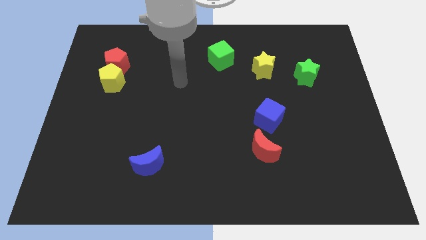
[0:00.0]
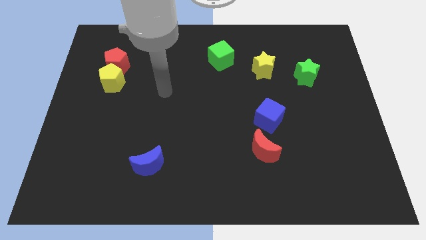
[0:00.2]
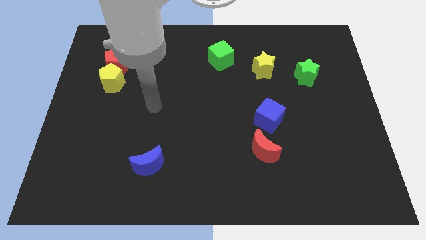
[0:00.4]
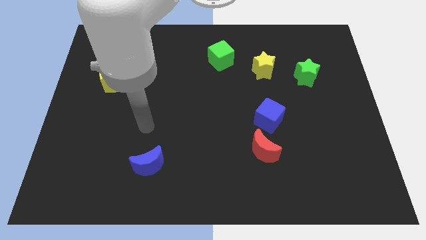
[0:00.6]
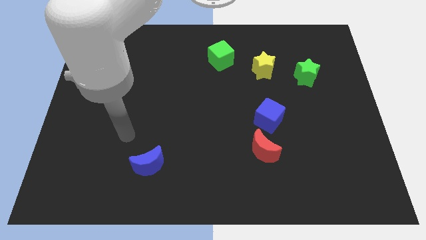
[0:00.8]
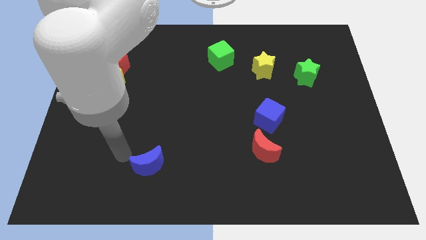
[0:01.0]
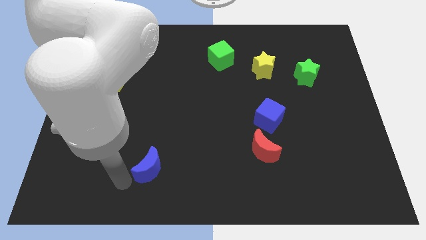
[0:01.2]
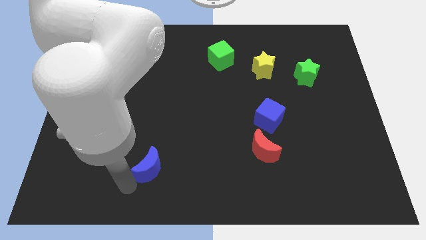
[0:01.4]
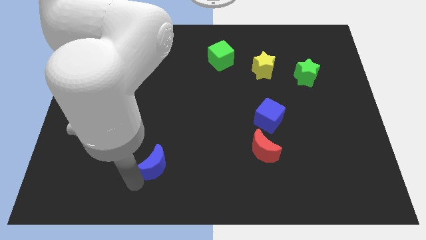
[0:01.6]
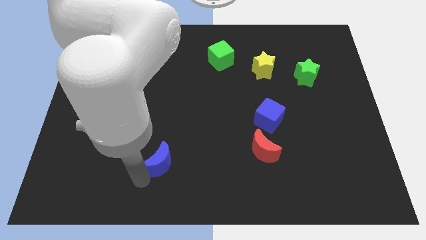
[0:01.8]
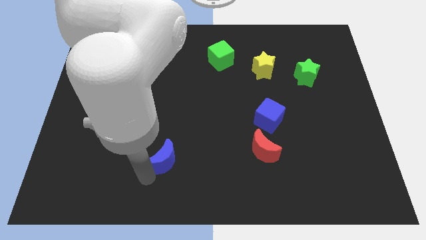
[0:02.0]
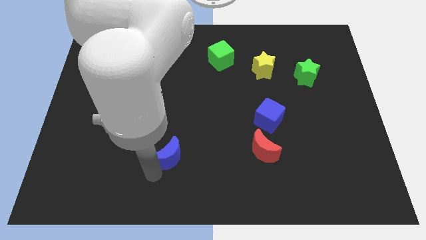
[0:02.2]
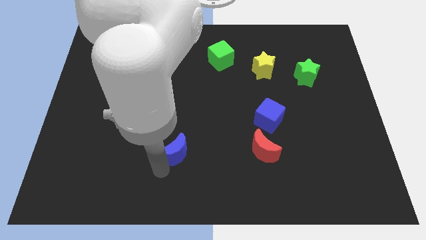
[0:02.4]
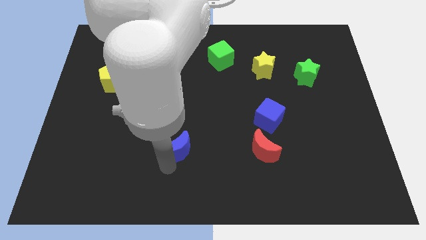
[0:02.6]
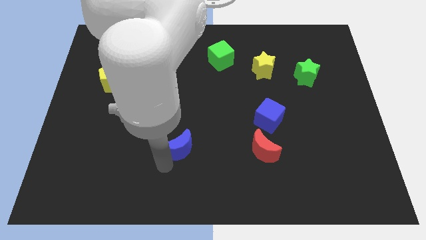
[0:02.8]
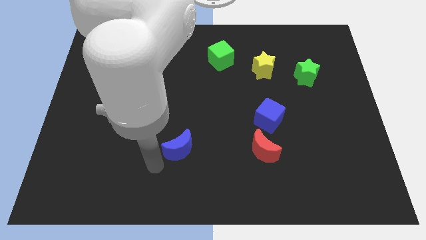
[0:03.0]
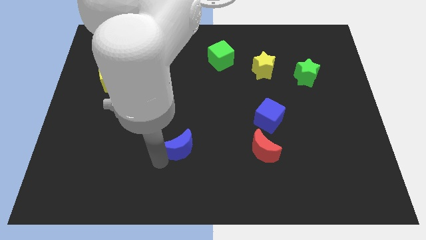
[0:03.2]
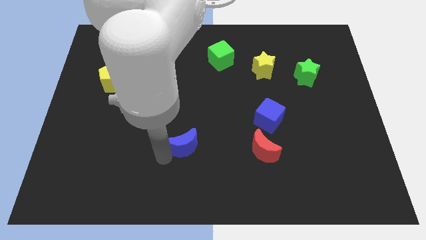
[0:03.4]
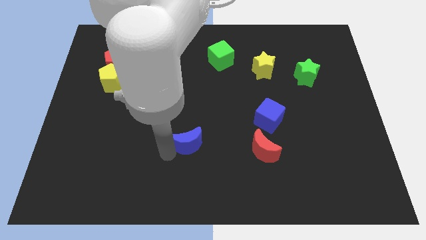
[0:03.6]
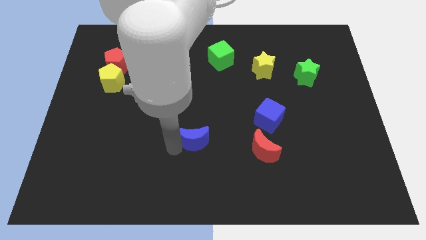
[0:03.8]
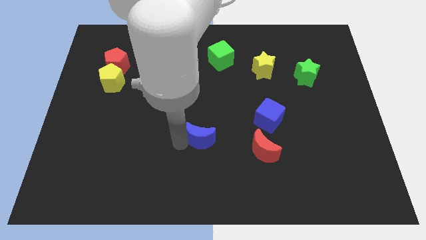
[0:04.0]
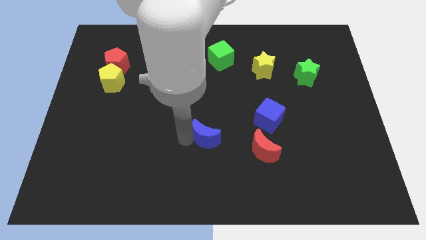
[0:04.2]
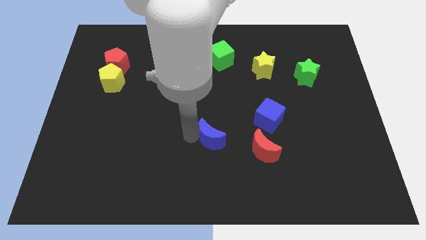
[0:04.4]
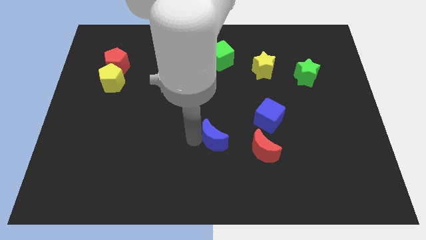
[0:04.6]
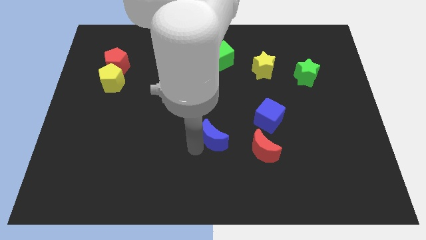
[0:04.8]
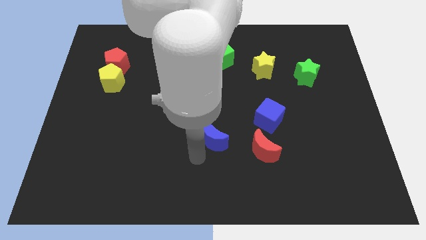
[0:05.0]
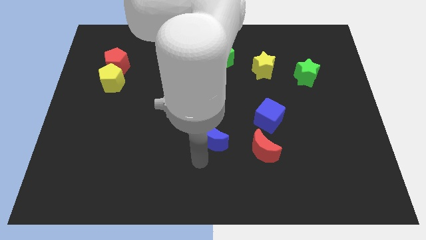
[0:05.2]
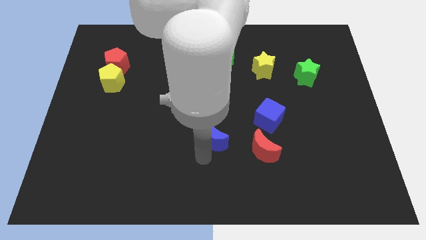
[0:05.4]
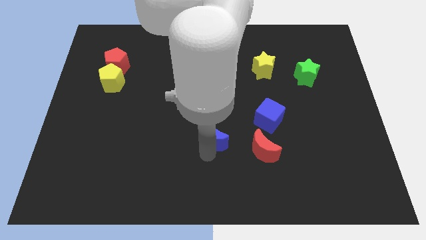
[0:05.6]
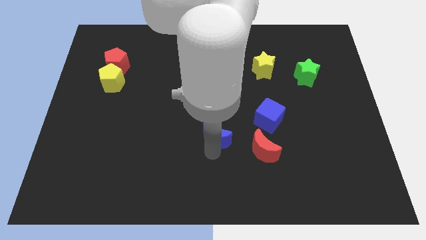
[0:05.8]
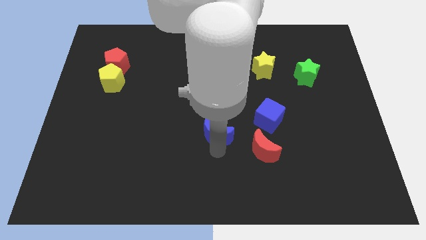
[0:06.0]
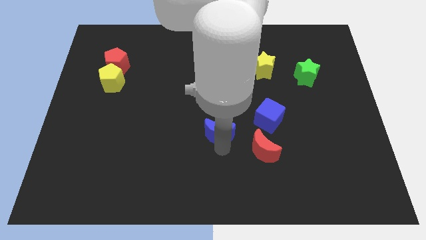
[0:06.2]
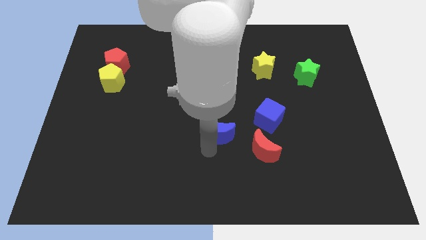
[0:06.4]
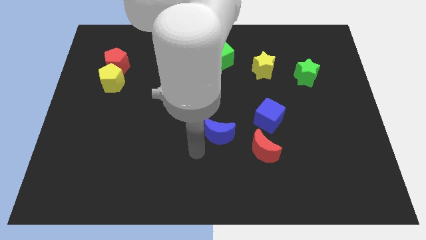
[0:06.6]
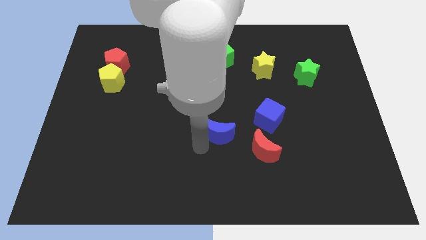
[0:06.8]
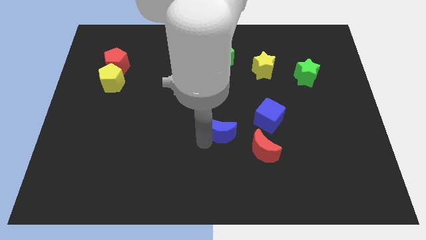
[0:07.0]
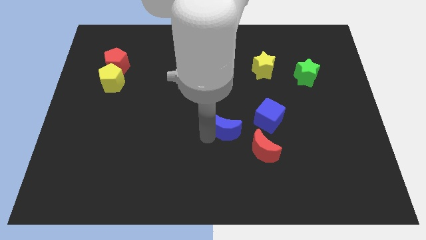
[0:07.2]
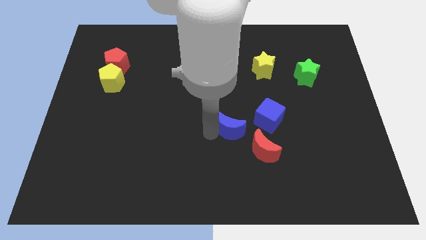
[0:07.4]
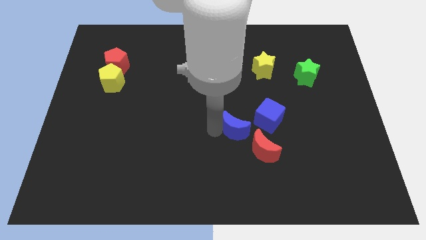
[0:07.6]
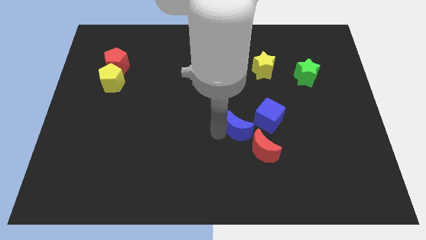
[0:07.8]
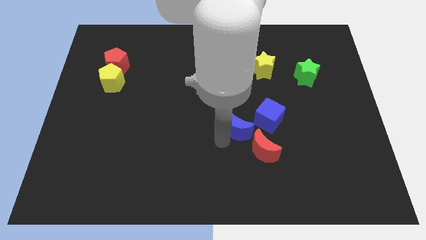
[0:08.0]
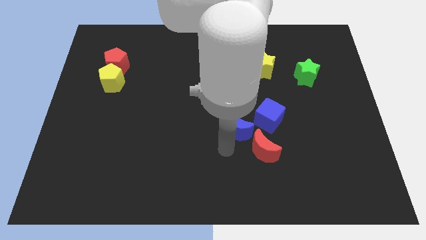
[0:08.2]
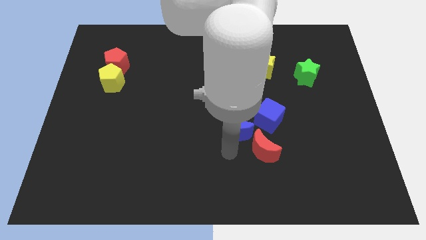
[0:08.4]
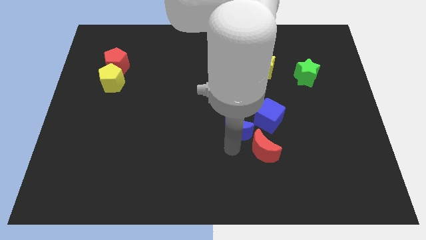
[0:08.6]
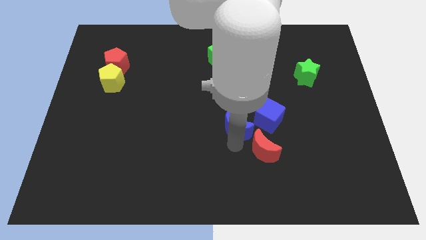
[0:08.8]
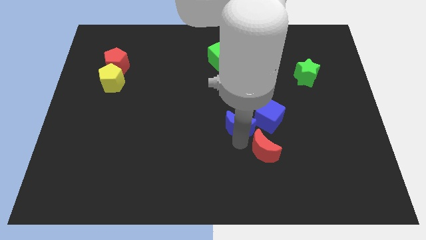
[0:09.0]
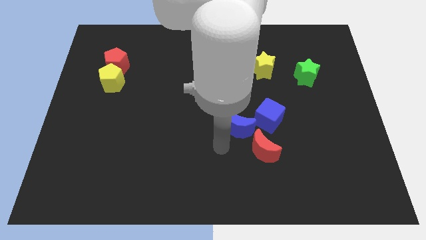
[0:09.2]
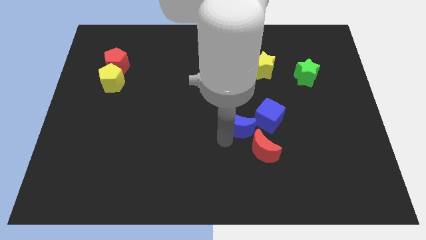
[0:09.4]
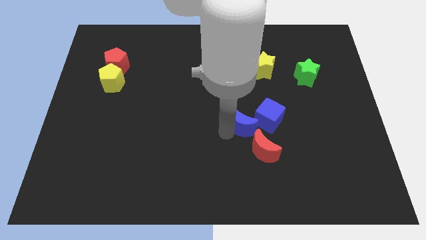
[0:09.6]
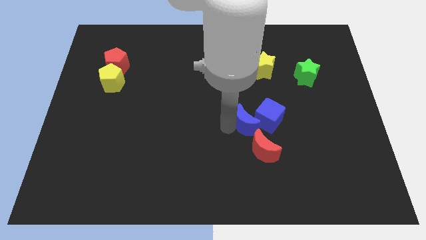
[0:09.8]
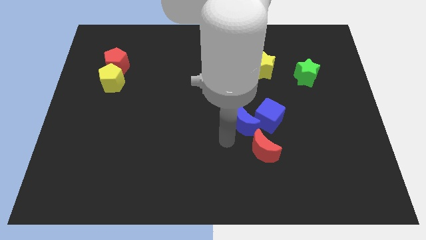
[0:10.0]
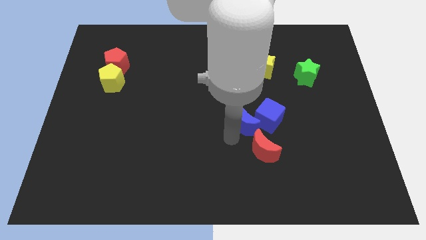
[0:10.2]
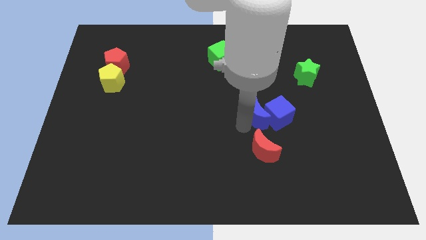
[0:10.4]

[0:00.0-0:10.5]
move the blue moon to the bottom side of the yellow star
